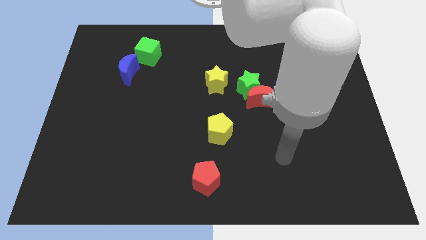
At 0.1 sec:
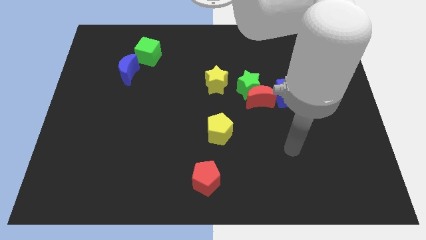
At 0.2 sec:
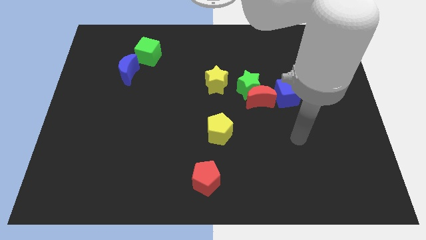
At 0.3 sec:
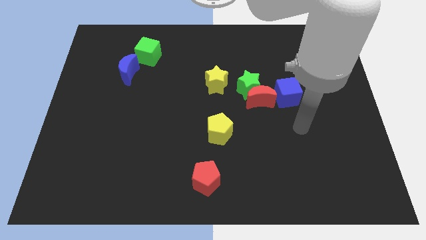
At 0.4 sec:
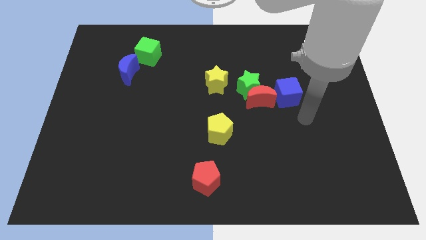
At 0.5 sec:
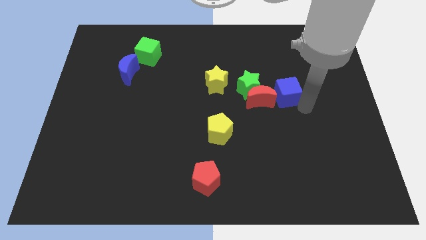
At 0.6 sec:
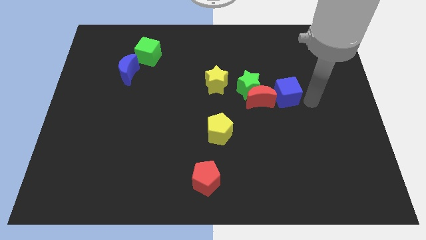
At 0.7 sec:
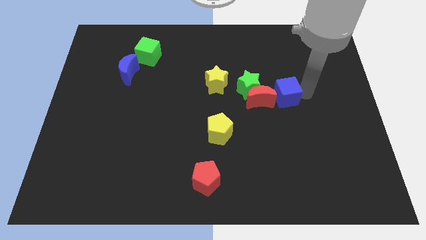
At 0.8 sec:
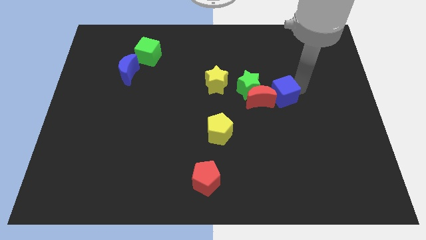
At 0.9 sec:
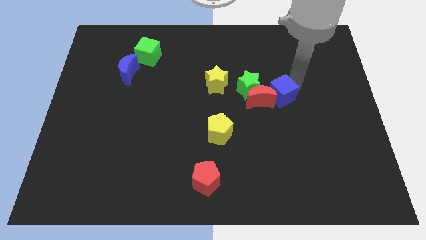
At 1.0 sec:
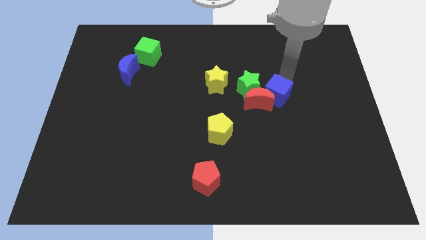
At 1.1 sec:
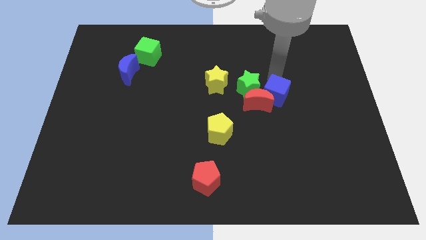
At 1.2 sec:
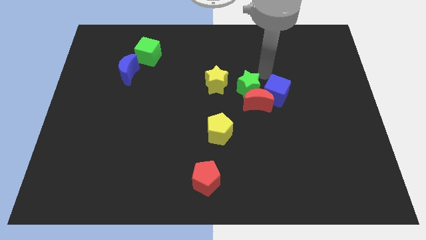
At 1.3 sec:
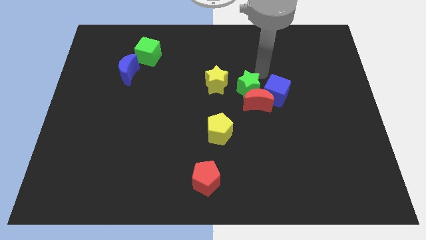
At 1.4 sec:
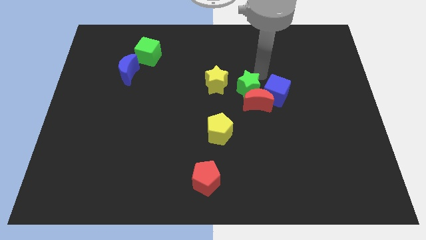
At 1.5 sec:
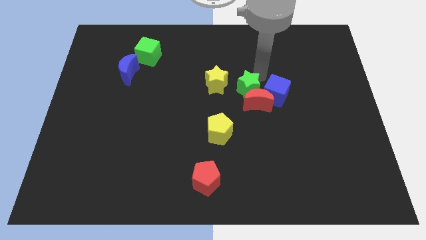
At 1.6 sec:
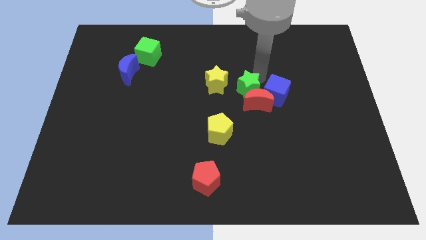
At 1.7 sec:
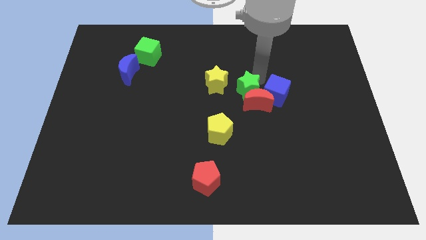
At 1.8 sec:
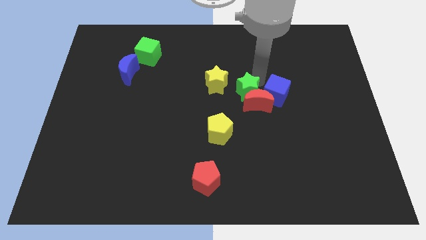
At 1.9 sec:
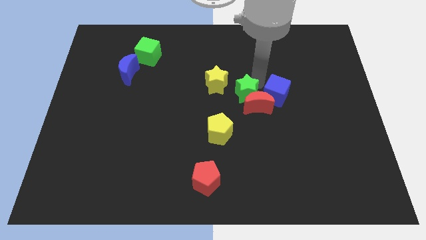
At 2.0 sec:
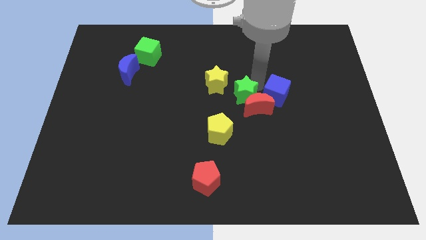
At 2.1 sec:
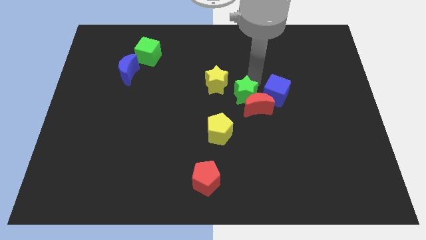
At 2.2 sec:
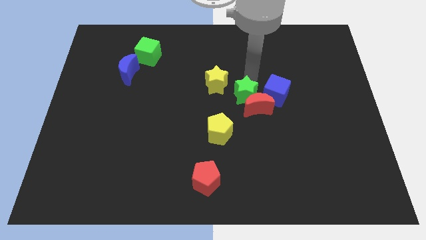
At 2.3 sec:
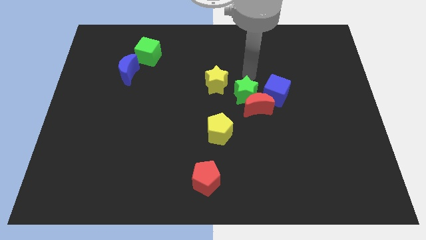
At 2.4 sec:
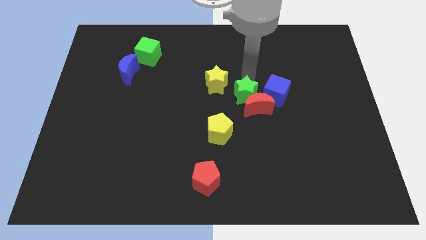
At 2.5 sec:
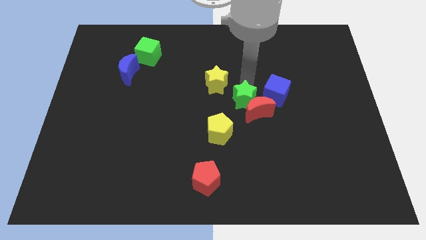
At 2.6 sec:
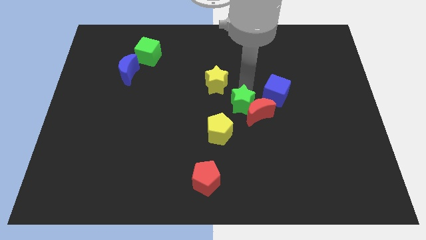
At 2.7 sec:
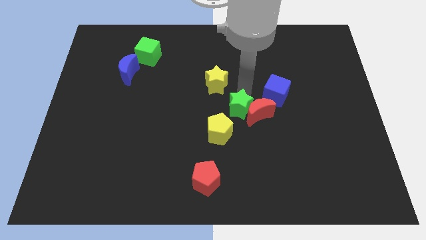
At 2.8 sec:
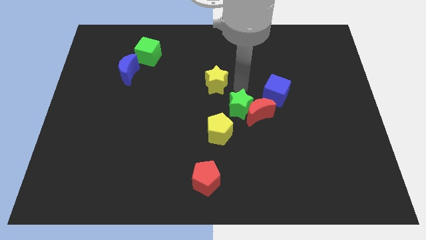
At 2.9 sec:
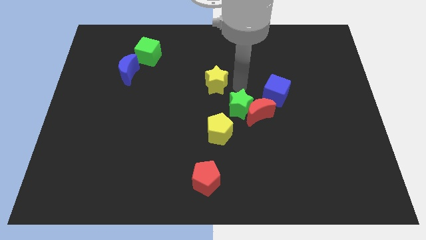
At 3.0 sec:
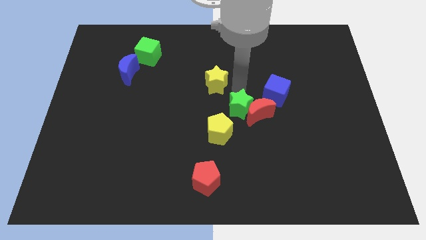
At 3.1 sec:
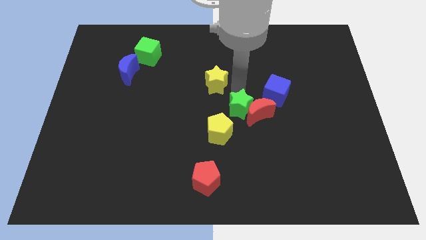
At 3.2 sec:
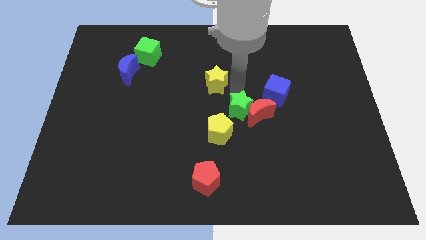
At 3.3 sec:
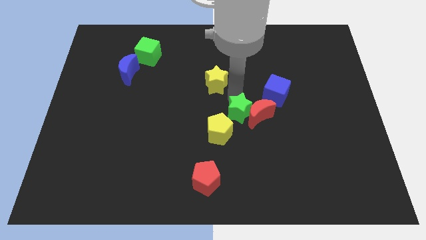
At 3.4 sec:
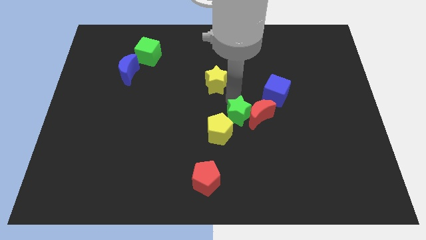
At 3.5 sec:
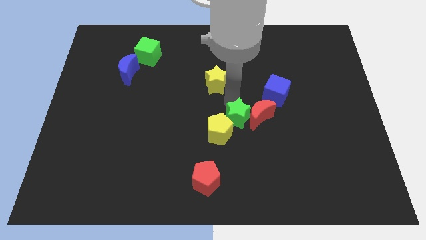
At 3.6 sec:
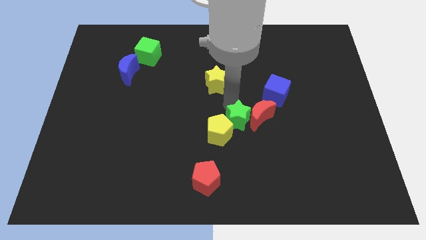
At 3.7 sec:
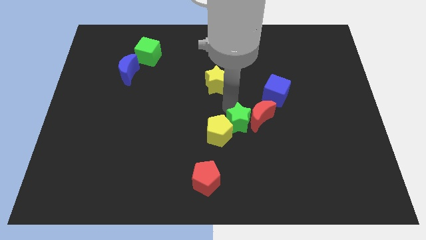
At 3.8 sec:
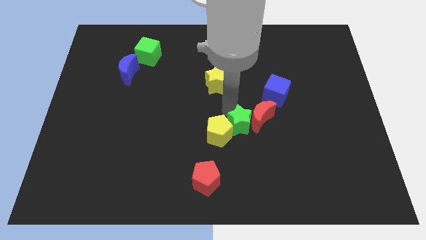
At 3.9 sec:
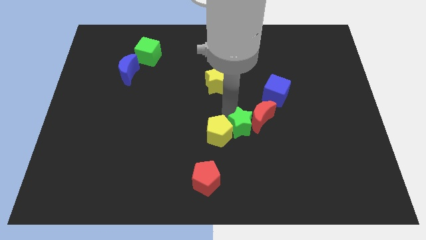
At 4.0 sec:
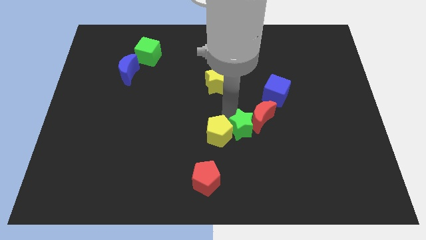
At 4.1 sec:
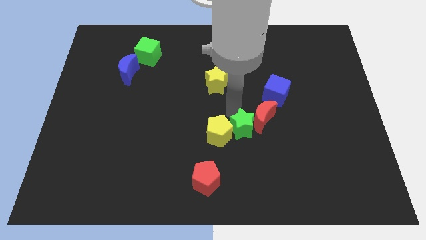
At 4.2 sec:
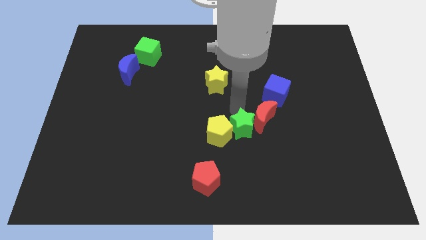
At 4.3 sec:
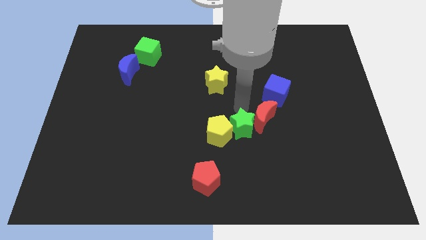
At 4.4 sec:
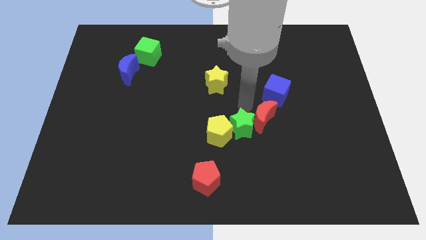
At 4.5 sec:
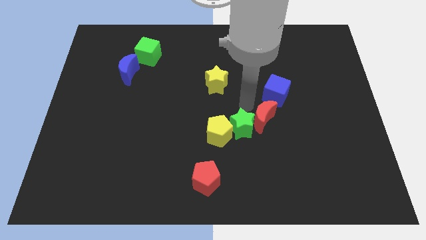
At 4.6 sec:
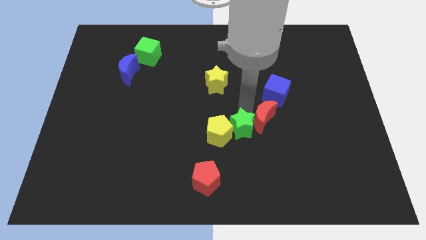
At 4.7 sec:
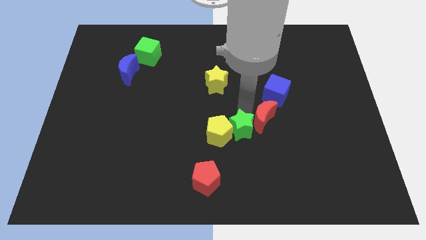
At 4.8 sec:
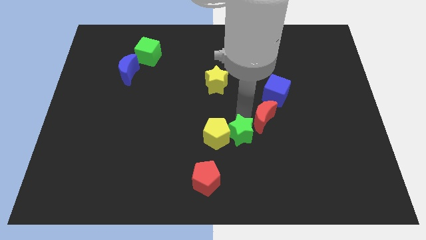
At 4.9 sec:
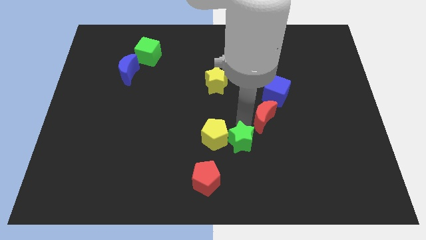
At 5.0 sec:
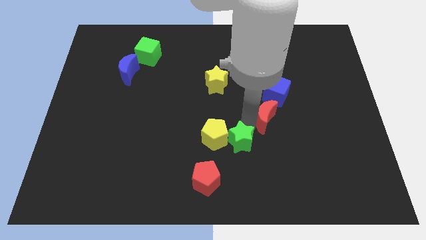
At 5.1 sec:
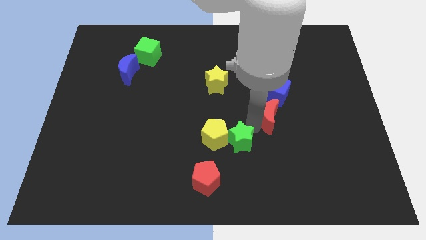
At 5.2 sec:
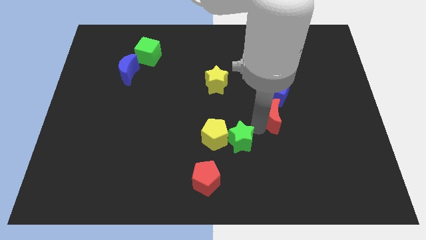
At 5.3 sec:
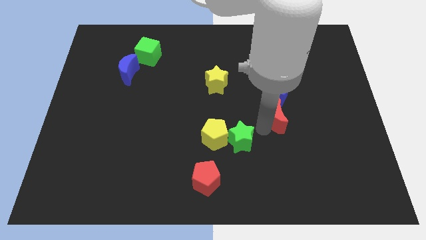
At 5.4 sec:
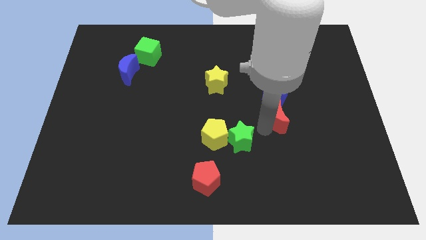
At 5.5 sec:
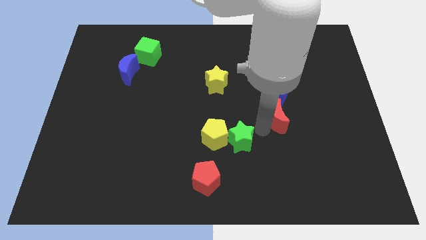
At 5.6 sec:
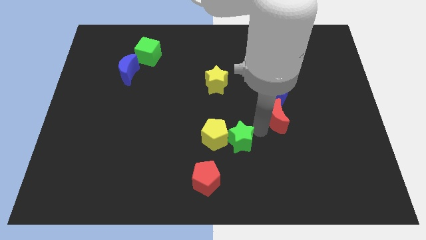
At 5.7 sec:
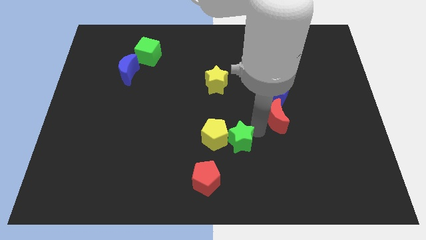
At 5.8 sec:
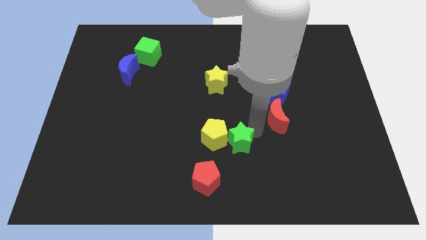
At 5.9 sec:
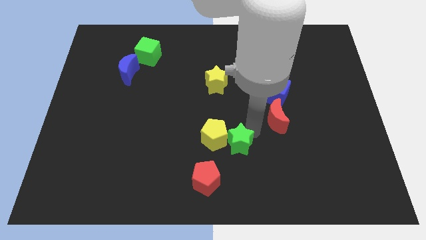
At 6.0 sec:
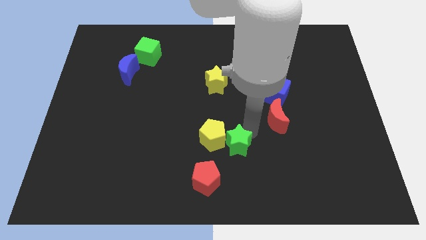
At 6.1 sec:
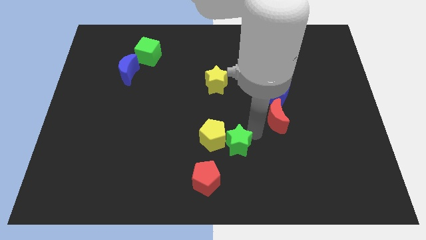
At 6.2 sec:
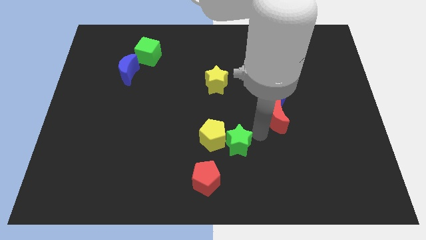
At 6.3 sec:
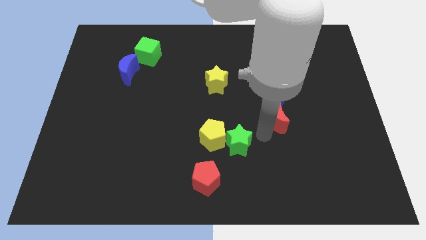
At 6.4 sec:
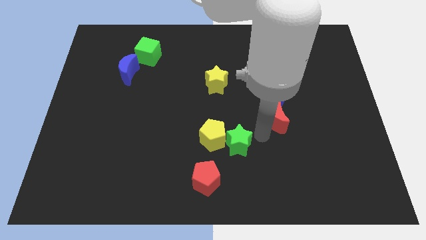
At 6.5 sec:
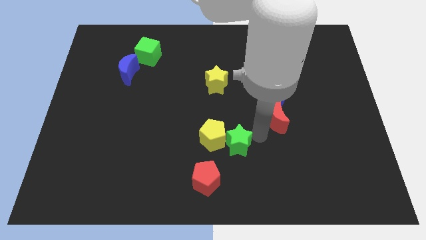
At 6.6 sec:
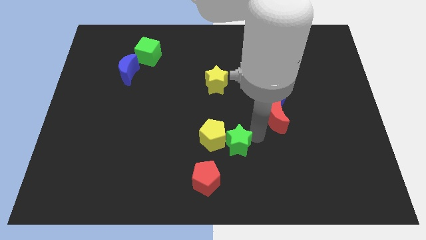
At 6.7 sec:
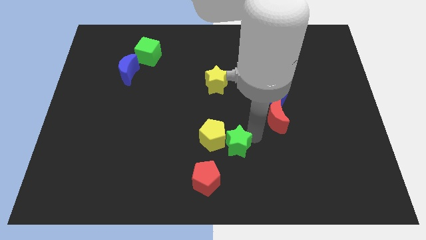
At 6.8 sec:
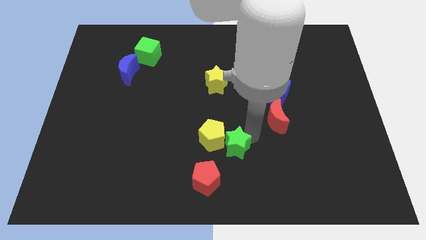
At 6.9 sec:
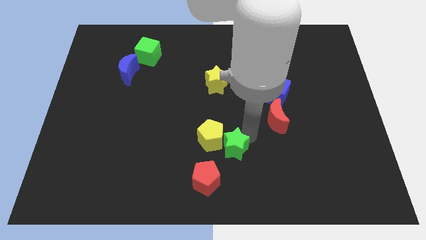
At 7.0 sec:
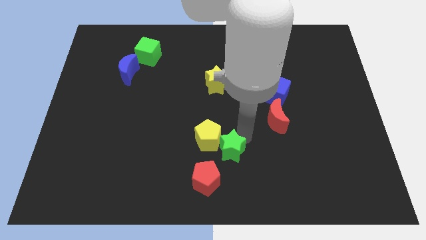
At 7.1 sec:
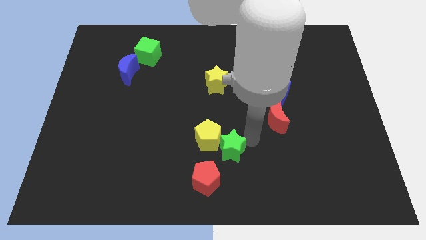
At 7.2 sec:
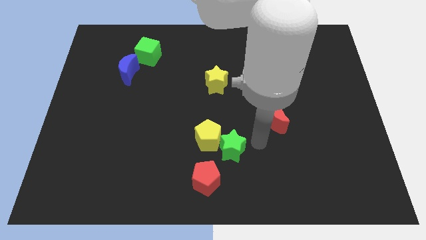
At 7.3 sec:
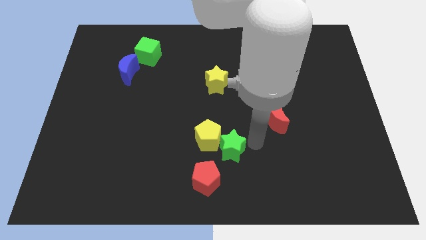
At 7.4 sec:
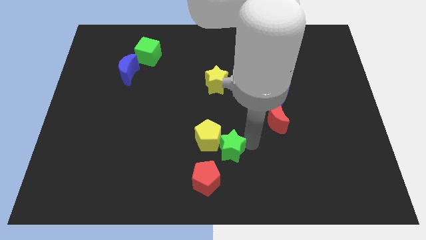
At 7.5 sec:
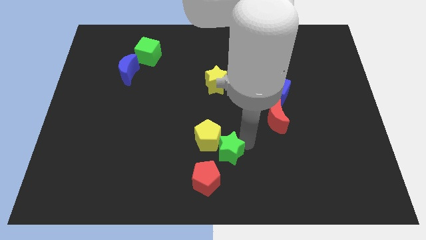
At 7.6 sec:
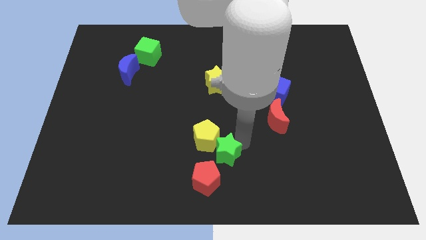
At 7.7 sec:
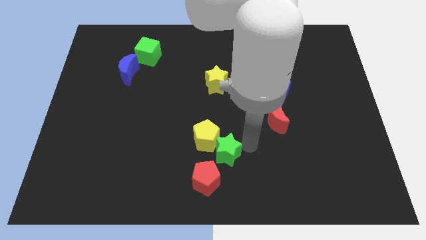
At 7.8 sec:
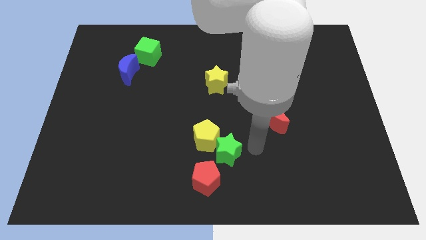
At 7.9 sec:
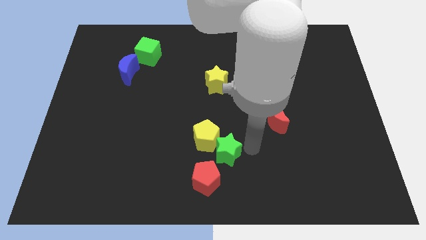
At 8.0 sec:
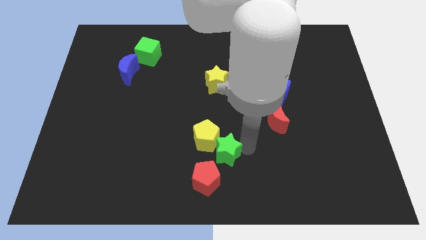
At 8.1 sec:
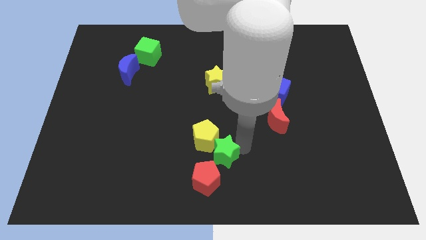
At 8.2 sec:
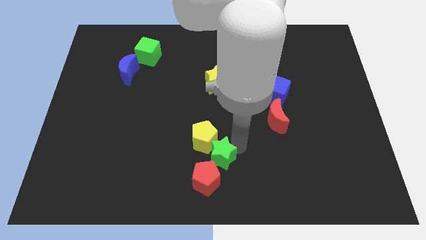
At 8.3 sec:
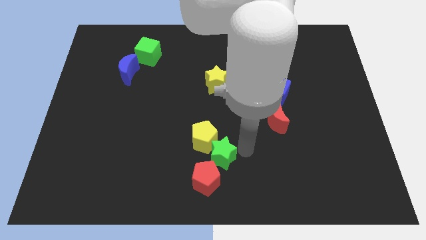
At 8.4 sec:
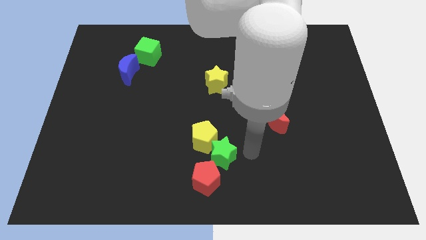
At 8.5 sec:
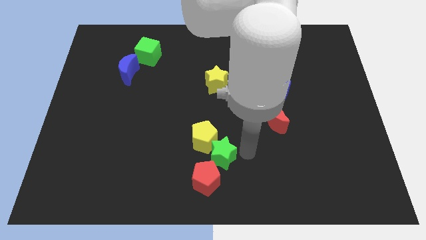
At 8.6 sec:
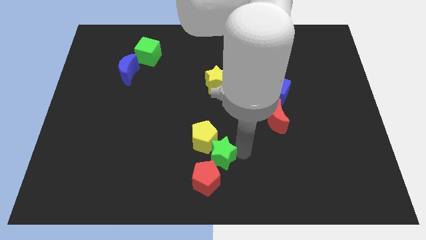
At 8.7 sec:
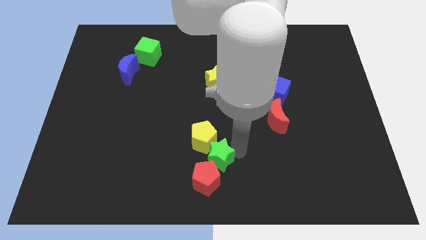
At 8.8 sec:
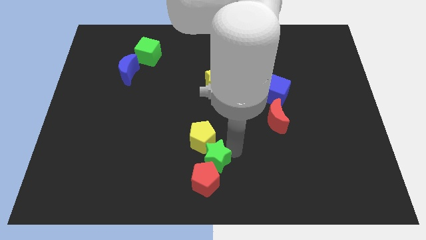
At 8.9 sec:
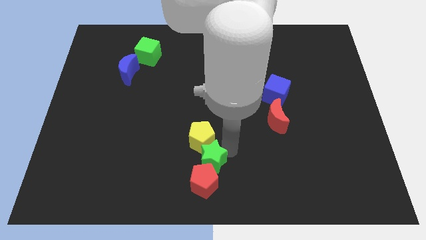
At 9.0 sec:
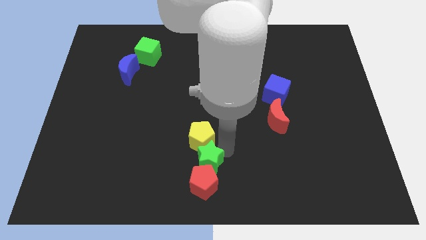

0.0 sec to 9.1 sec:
move the green star to the bottom left of the yellow pentagon
